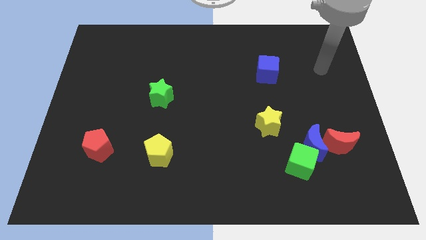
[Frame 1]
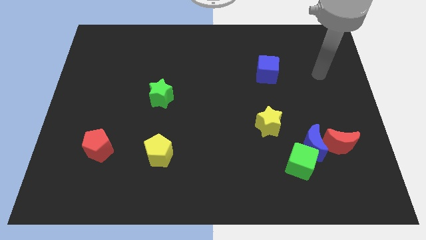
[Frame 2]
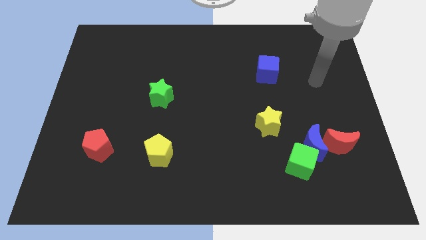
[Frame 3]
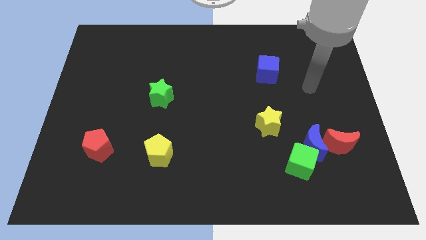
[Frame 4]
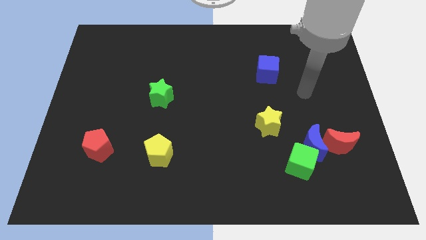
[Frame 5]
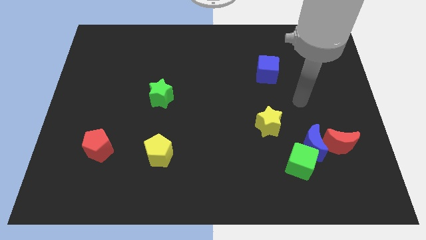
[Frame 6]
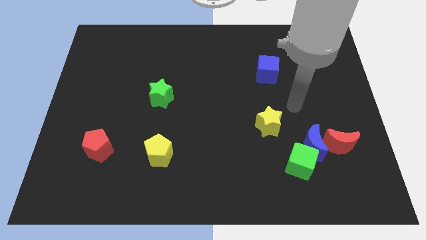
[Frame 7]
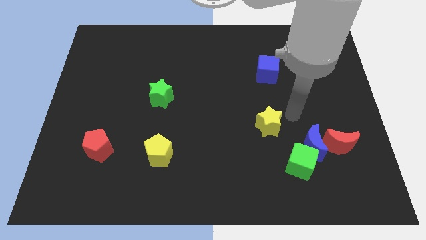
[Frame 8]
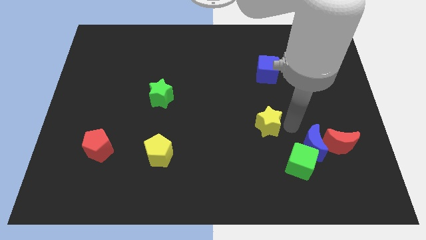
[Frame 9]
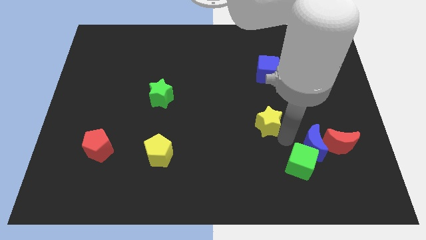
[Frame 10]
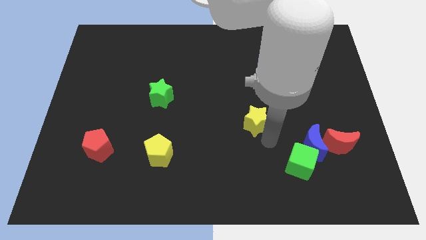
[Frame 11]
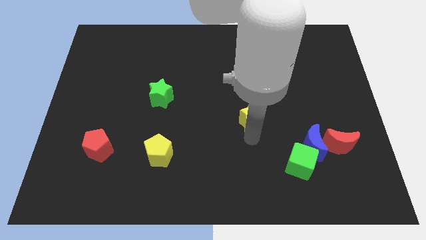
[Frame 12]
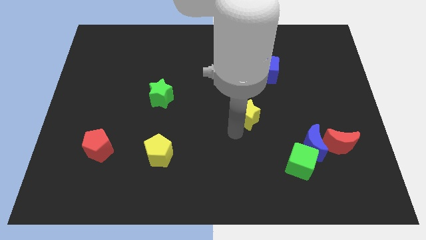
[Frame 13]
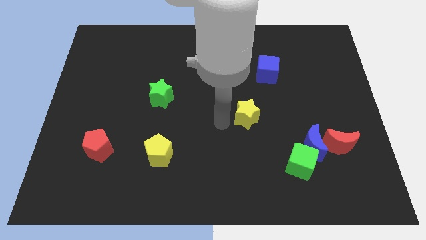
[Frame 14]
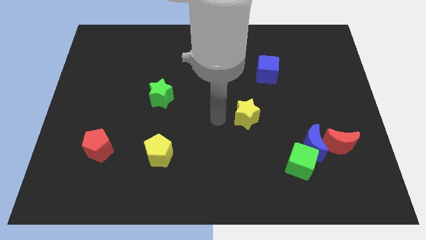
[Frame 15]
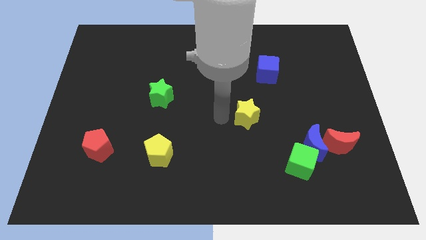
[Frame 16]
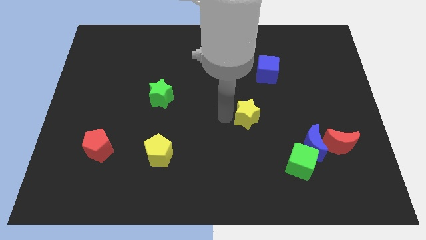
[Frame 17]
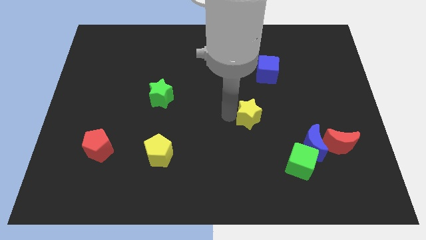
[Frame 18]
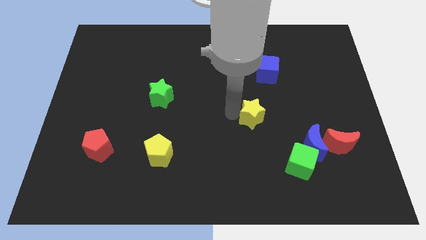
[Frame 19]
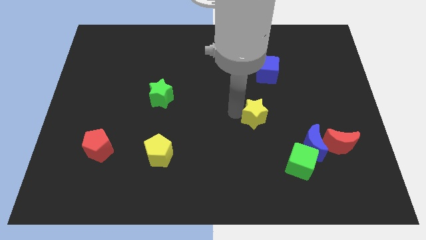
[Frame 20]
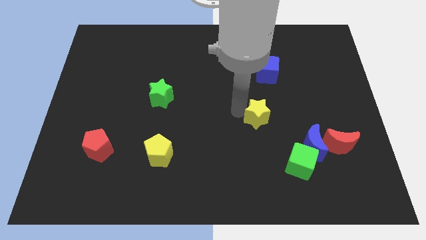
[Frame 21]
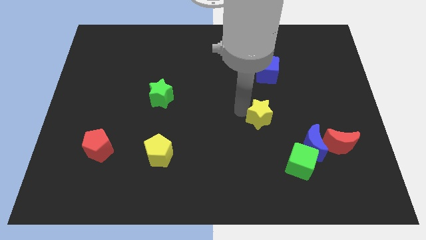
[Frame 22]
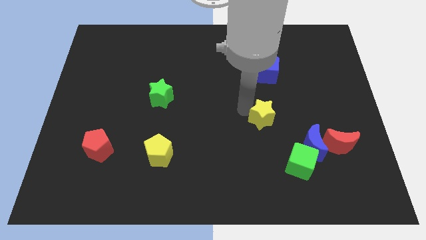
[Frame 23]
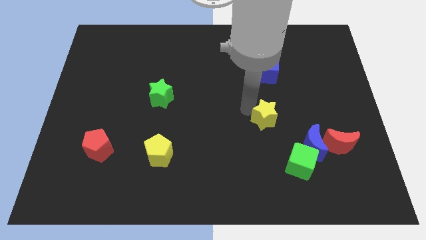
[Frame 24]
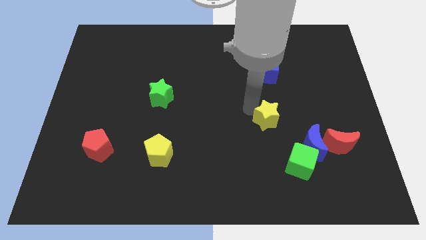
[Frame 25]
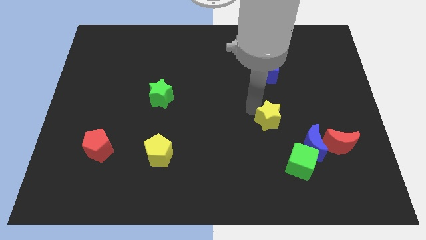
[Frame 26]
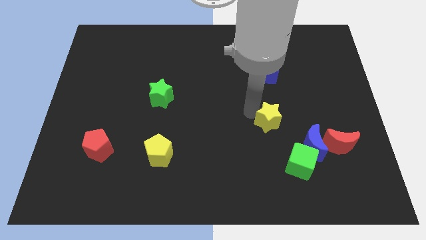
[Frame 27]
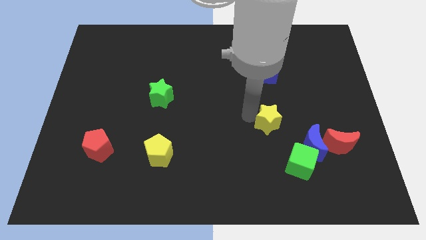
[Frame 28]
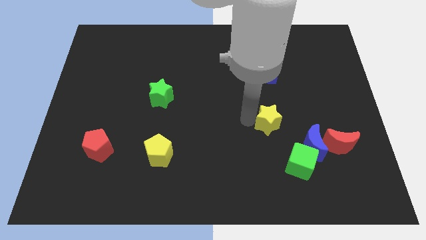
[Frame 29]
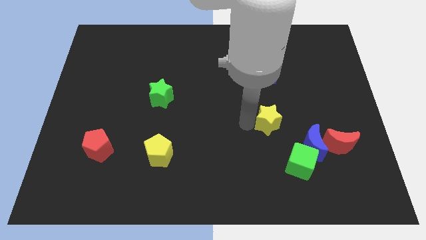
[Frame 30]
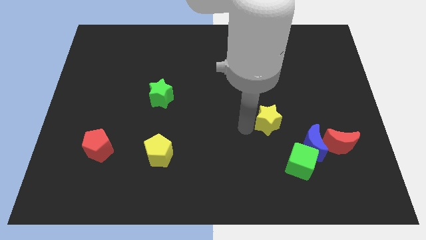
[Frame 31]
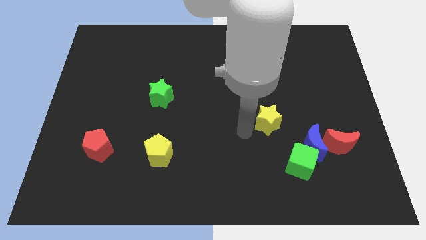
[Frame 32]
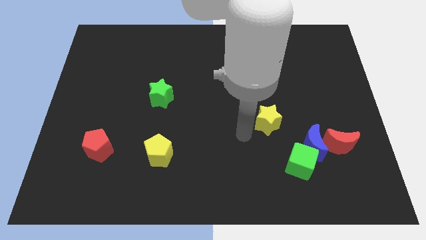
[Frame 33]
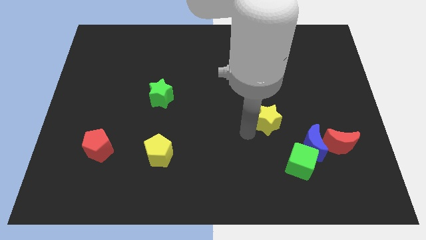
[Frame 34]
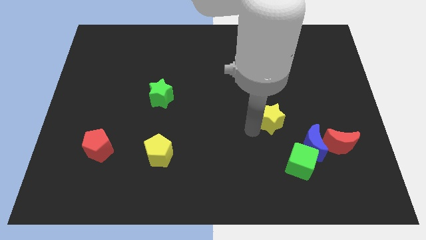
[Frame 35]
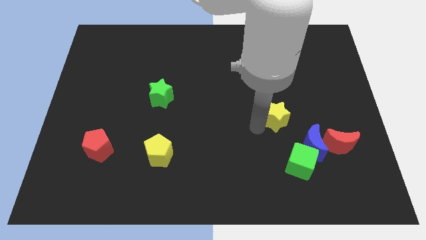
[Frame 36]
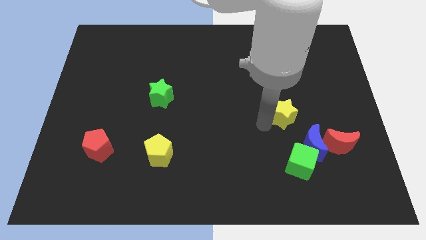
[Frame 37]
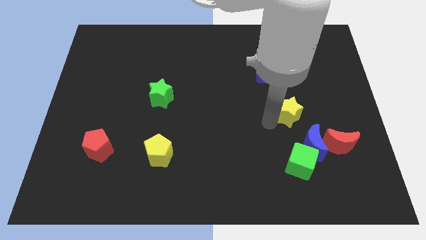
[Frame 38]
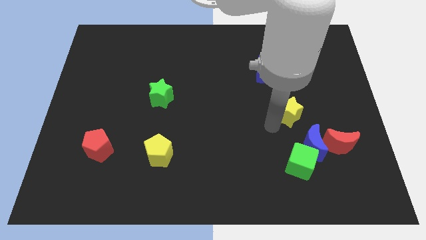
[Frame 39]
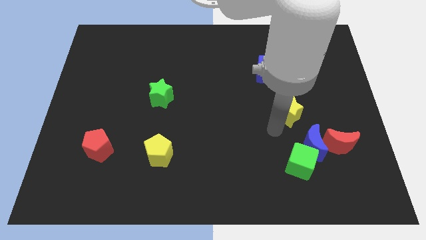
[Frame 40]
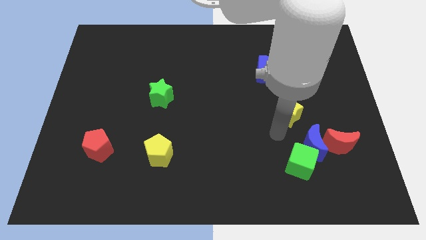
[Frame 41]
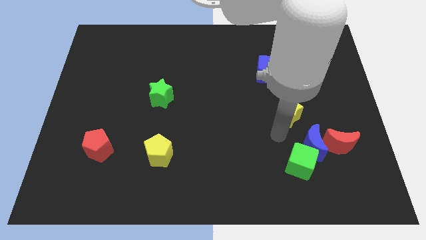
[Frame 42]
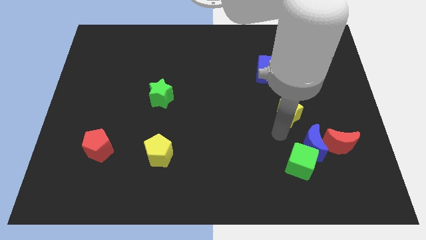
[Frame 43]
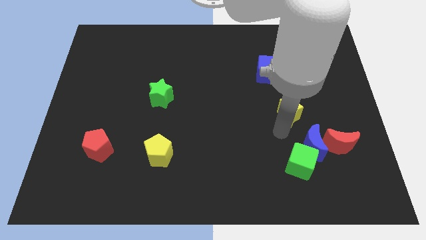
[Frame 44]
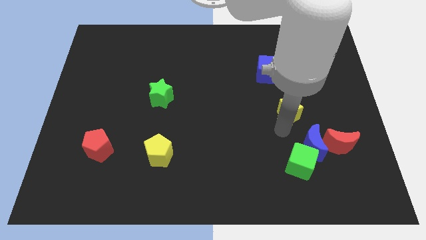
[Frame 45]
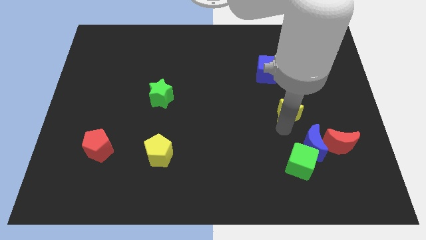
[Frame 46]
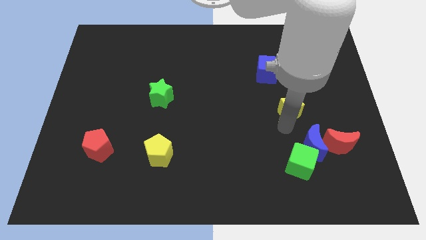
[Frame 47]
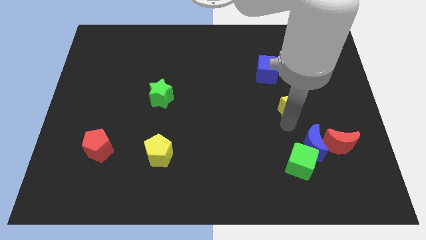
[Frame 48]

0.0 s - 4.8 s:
push the yellow star up and to the right a little

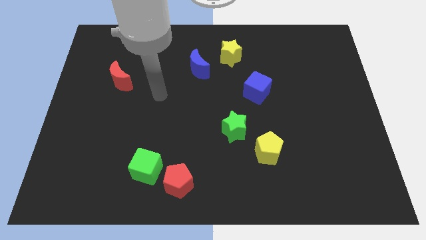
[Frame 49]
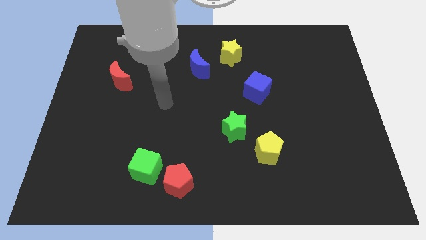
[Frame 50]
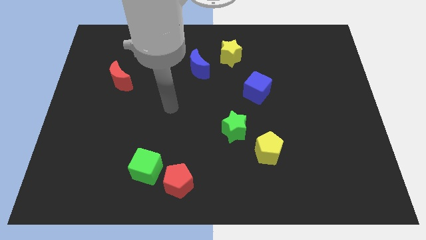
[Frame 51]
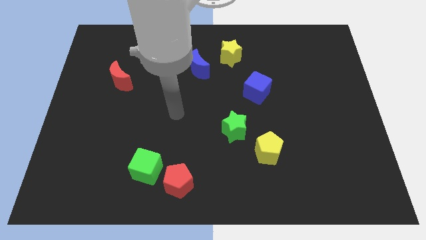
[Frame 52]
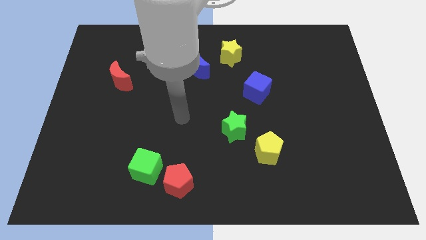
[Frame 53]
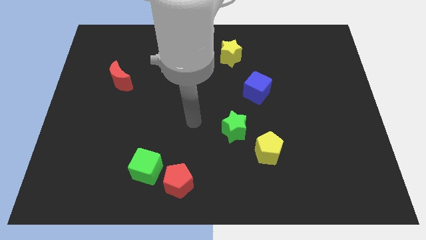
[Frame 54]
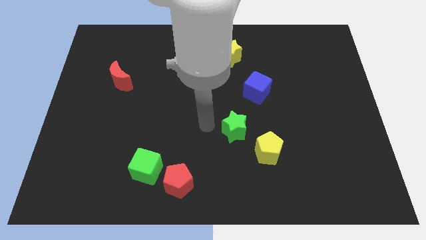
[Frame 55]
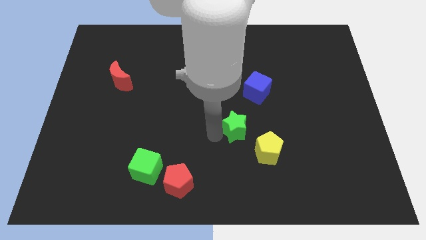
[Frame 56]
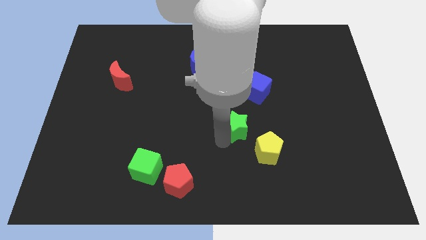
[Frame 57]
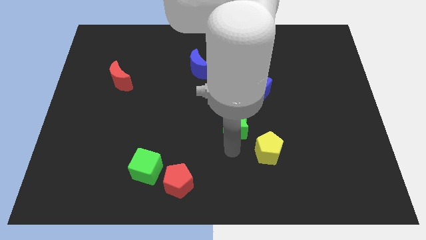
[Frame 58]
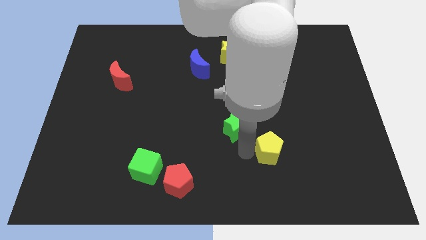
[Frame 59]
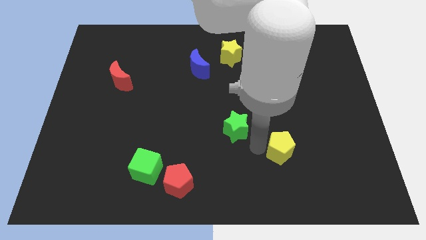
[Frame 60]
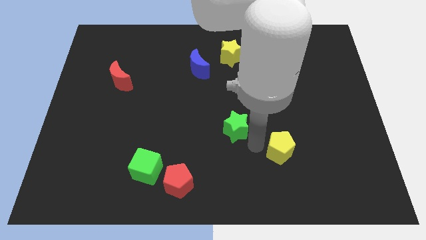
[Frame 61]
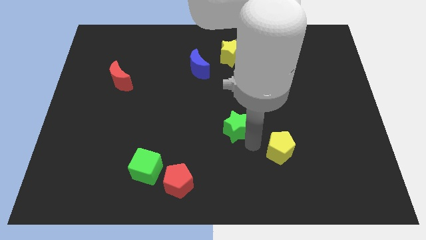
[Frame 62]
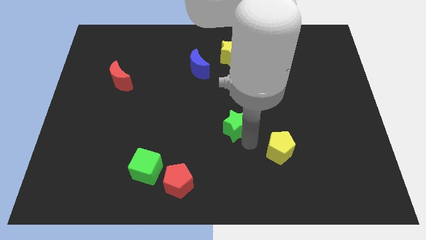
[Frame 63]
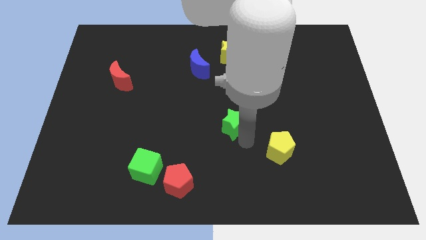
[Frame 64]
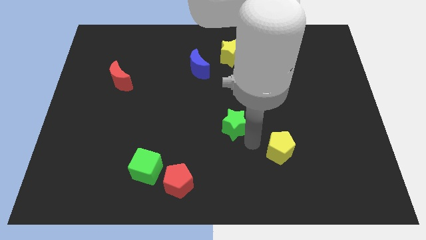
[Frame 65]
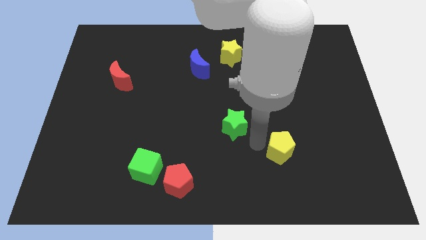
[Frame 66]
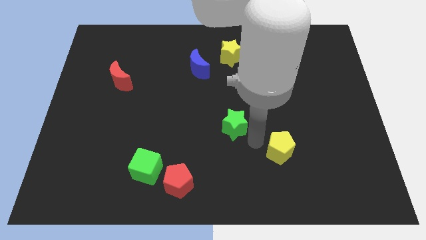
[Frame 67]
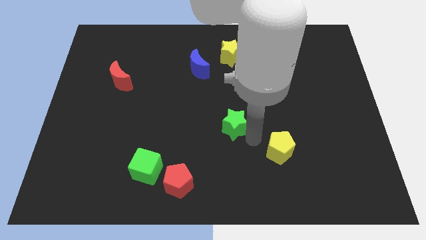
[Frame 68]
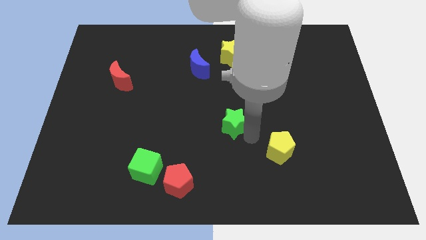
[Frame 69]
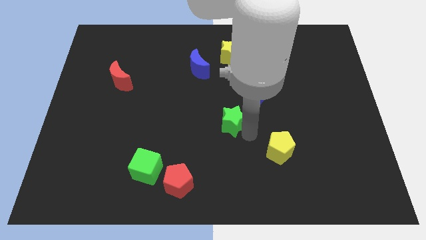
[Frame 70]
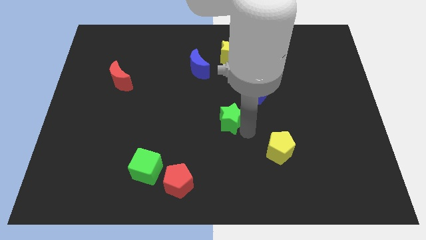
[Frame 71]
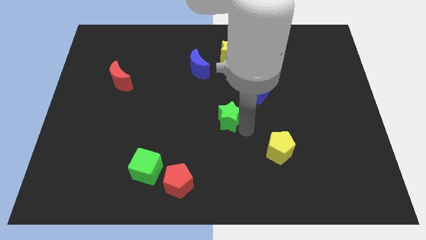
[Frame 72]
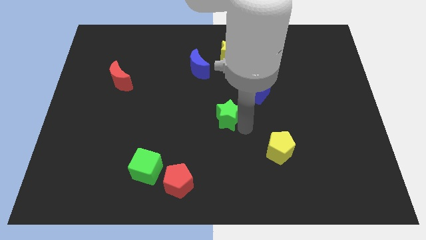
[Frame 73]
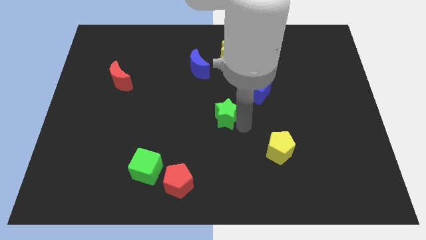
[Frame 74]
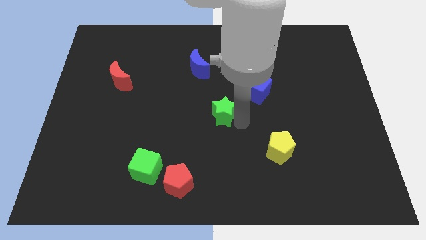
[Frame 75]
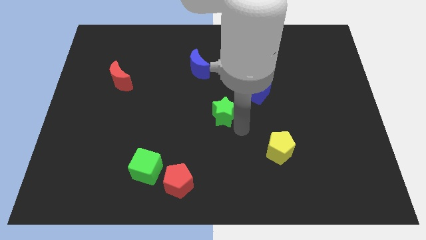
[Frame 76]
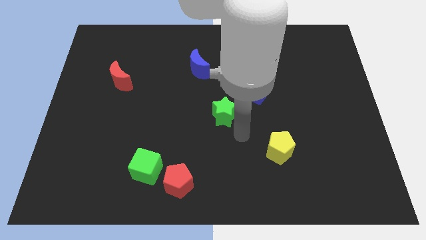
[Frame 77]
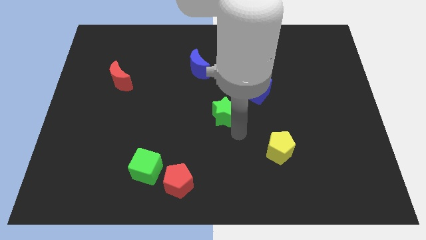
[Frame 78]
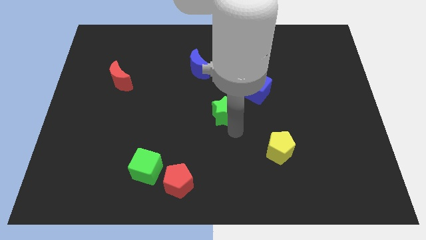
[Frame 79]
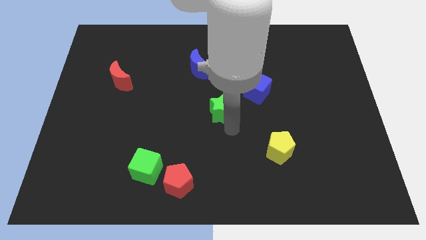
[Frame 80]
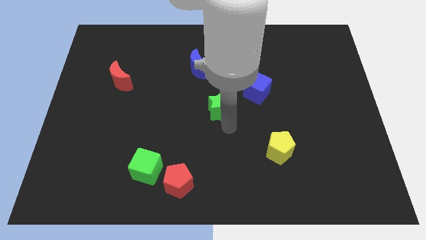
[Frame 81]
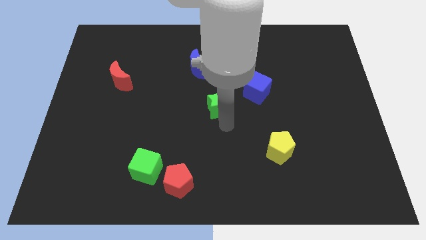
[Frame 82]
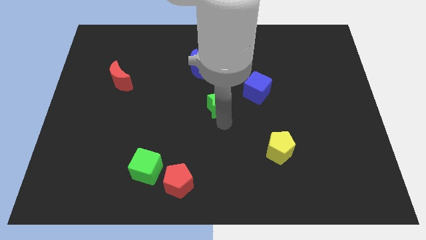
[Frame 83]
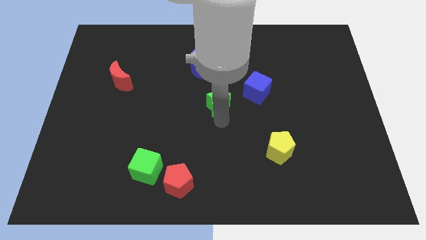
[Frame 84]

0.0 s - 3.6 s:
push the green star upwards and to the left diagonally slightly
